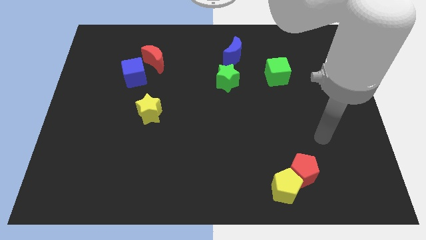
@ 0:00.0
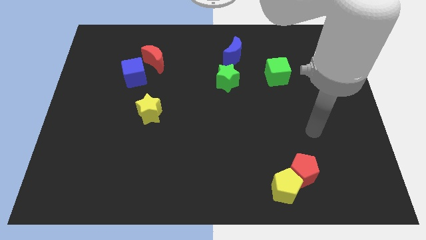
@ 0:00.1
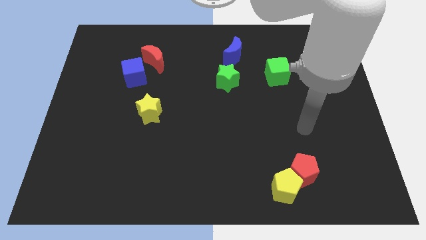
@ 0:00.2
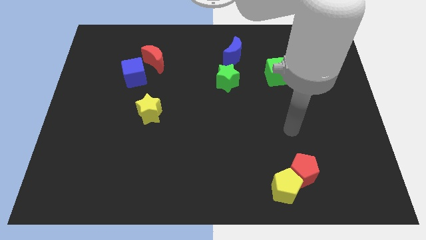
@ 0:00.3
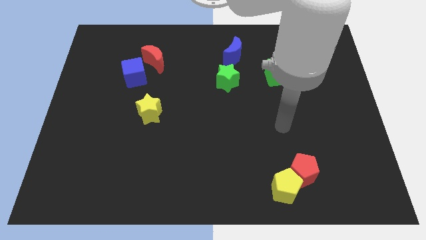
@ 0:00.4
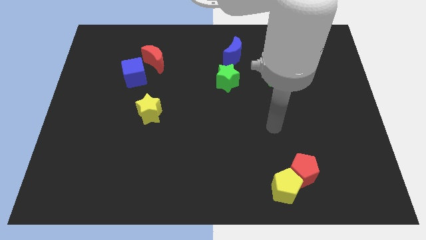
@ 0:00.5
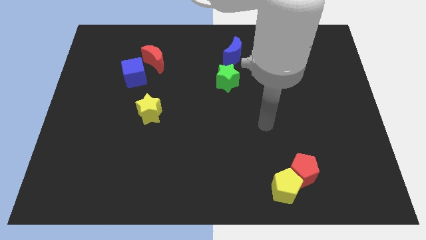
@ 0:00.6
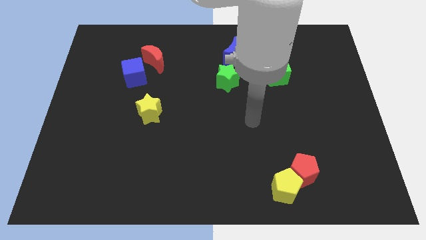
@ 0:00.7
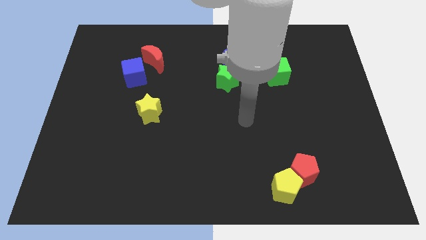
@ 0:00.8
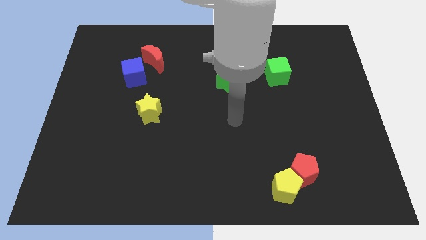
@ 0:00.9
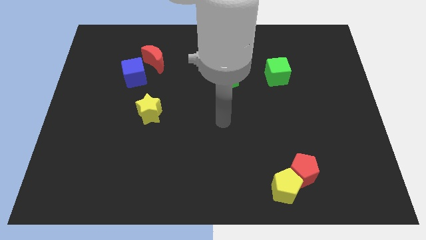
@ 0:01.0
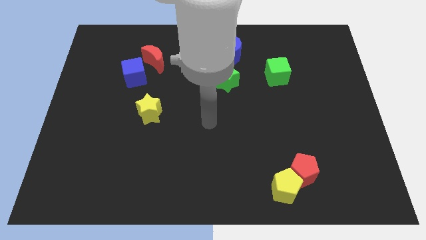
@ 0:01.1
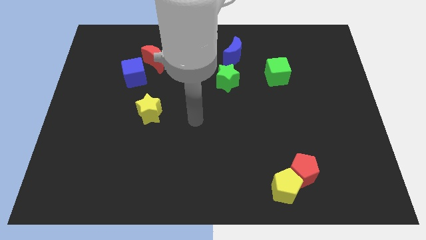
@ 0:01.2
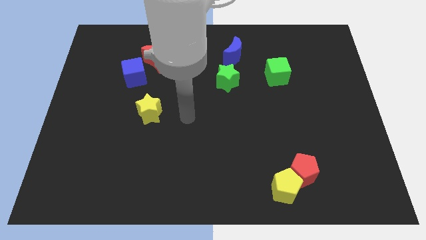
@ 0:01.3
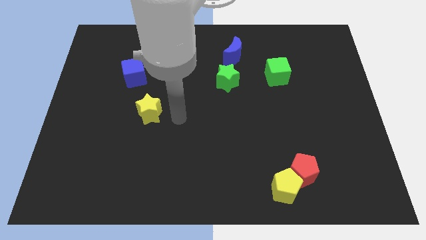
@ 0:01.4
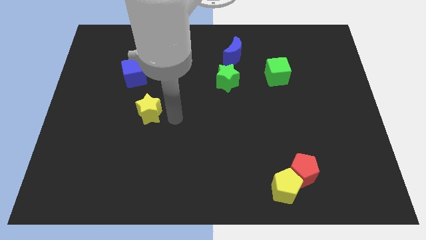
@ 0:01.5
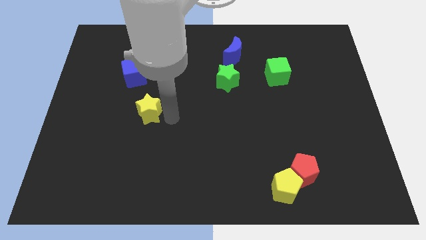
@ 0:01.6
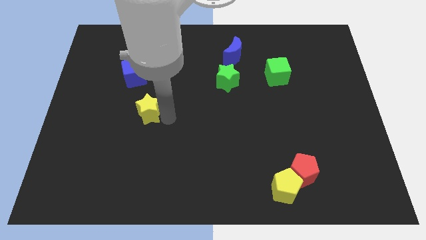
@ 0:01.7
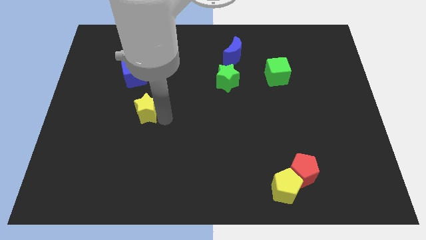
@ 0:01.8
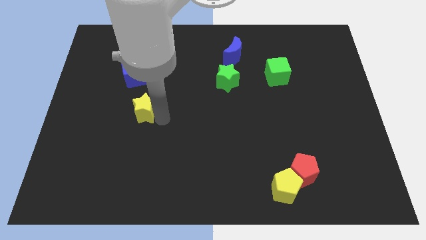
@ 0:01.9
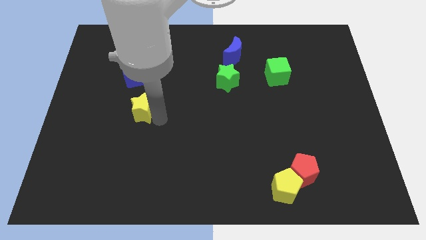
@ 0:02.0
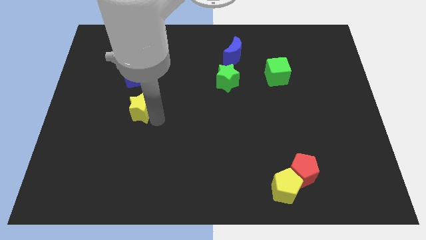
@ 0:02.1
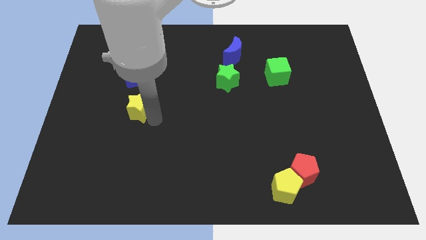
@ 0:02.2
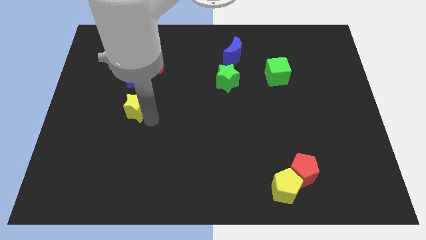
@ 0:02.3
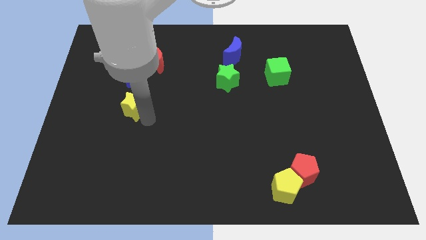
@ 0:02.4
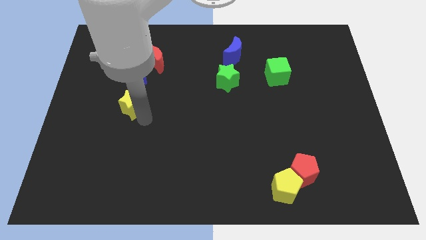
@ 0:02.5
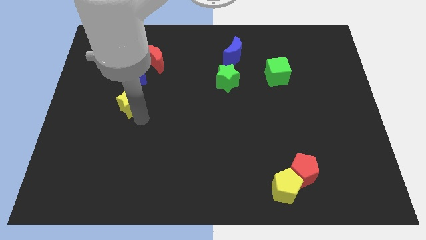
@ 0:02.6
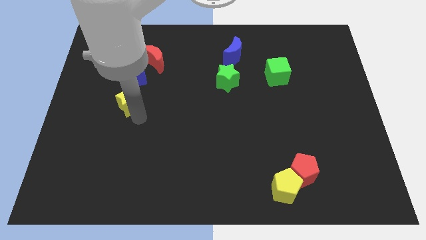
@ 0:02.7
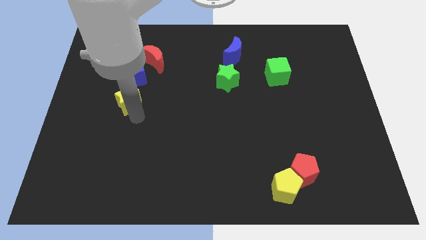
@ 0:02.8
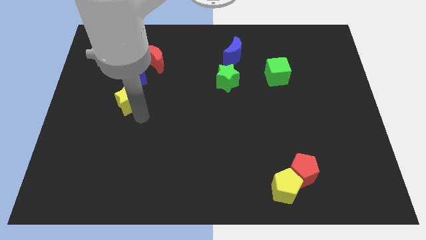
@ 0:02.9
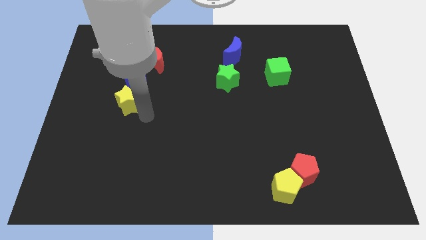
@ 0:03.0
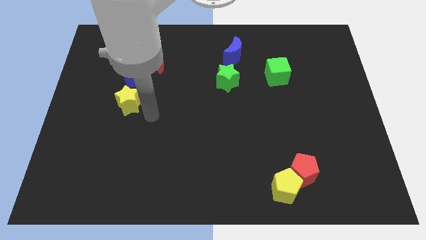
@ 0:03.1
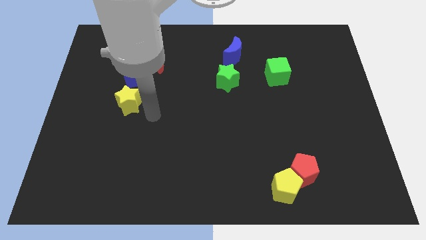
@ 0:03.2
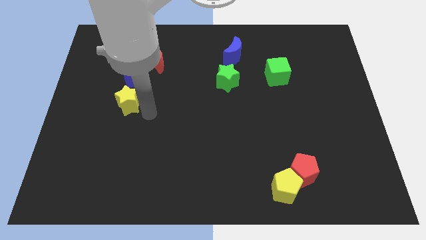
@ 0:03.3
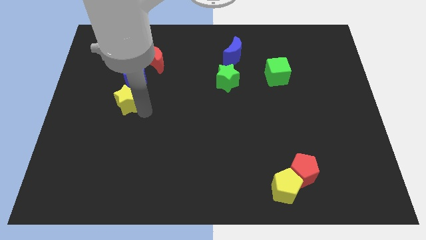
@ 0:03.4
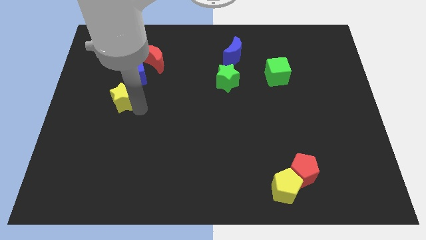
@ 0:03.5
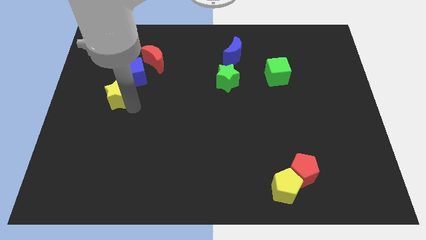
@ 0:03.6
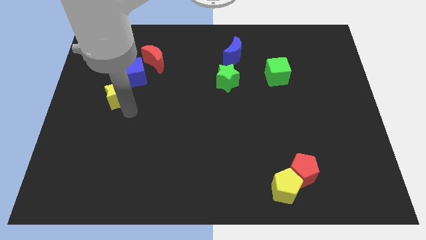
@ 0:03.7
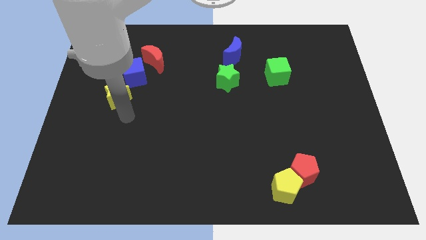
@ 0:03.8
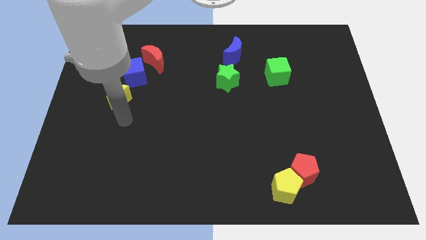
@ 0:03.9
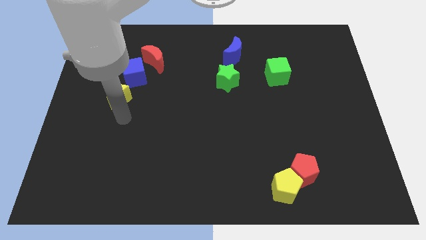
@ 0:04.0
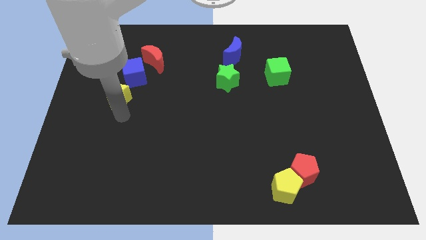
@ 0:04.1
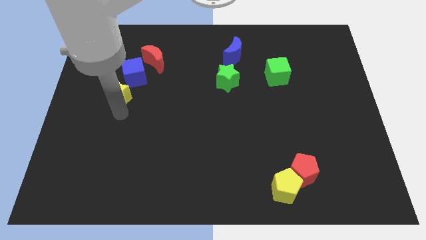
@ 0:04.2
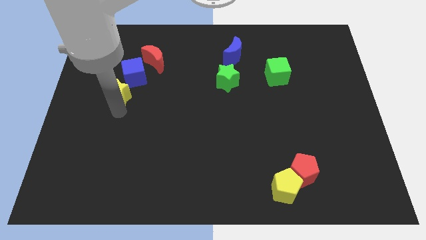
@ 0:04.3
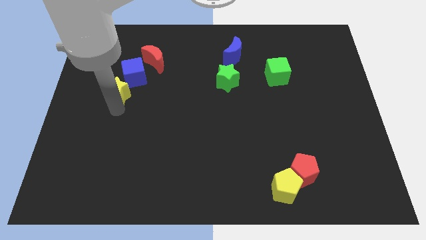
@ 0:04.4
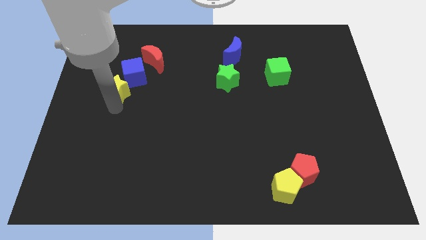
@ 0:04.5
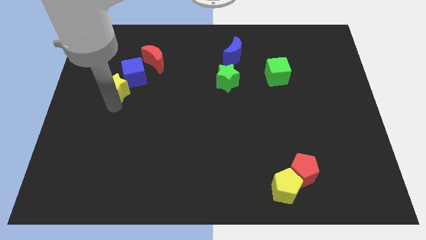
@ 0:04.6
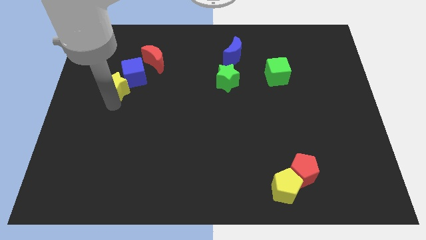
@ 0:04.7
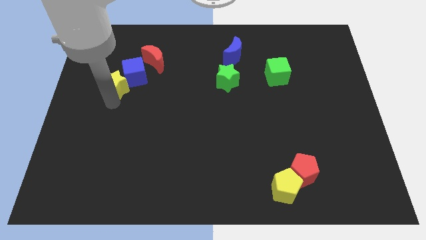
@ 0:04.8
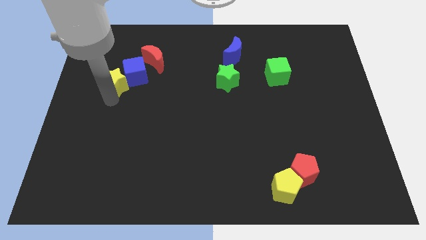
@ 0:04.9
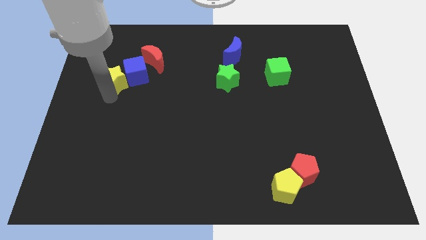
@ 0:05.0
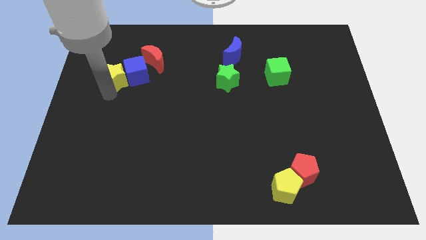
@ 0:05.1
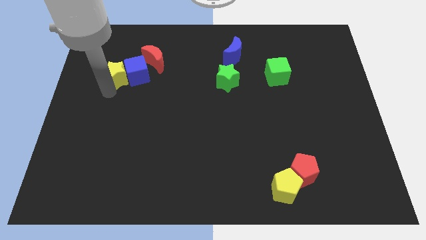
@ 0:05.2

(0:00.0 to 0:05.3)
move the yellow star to the top left side of the blue cube

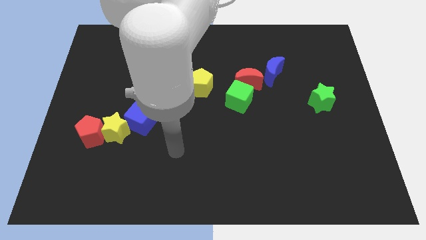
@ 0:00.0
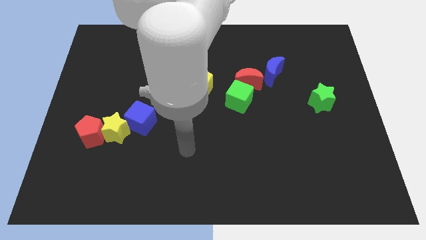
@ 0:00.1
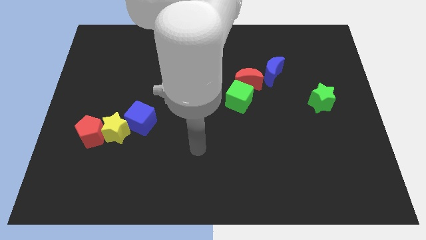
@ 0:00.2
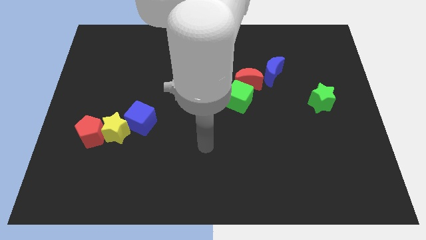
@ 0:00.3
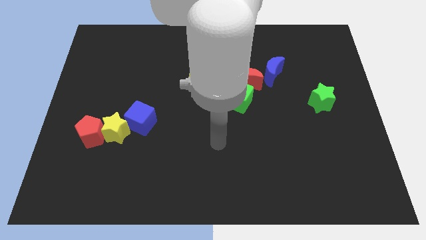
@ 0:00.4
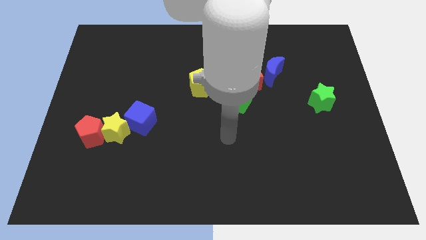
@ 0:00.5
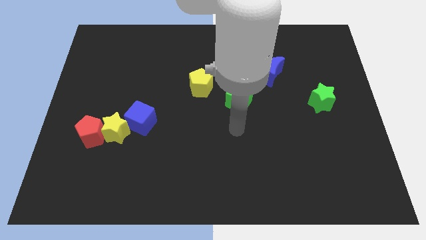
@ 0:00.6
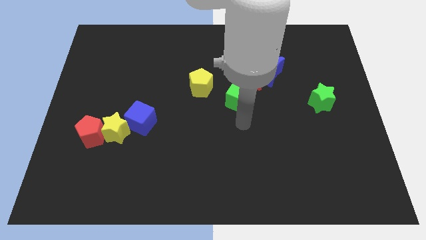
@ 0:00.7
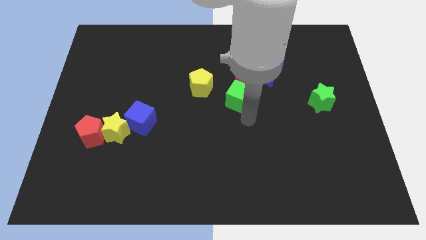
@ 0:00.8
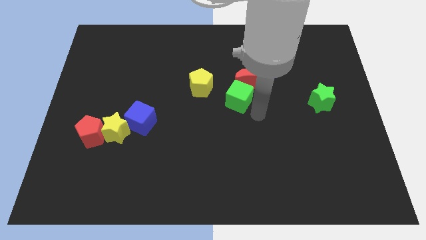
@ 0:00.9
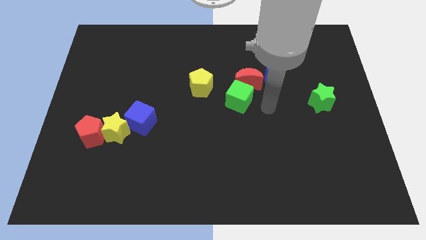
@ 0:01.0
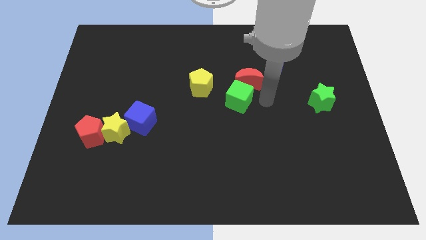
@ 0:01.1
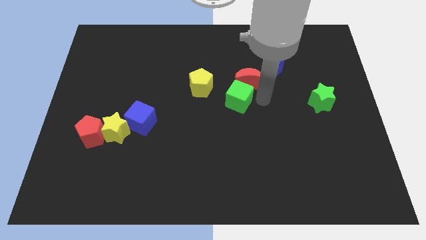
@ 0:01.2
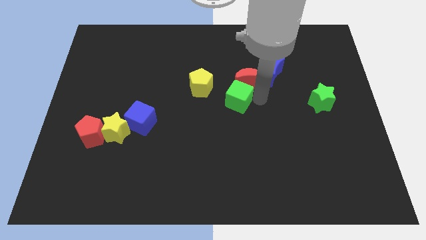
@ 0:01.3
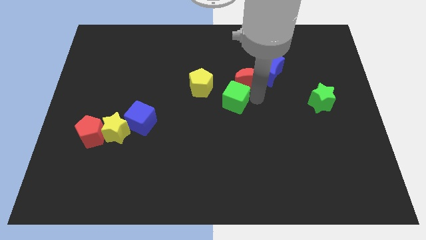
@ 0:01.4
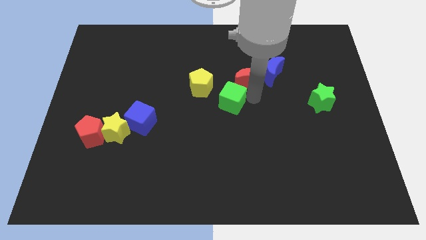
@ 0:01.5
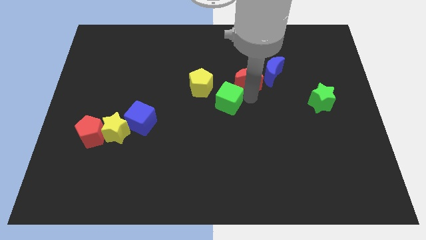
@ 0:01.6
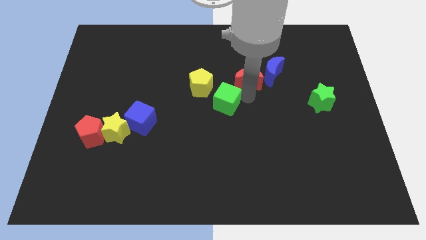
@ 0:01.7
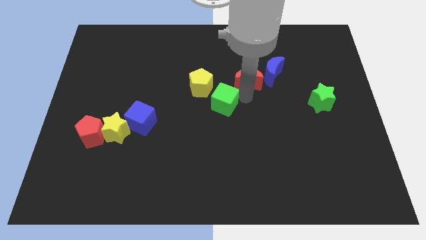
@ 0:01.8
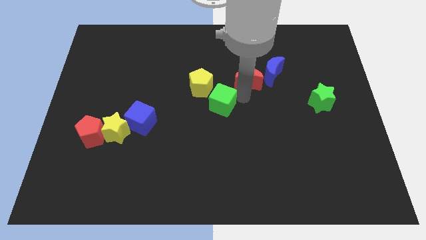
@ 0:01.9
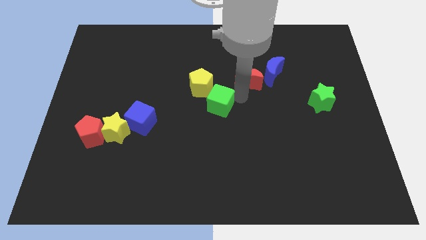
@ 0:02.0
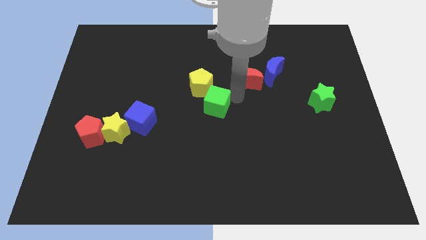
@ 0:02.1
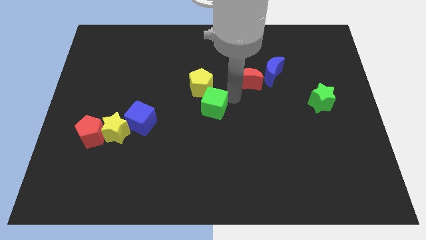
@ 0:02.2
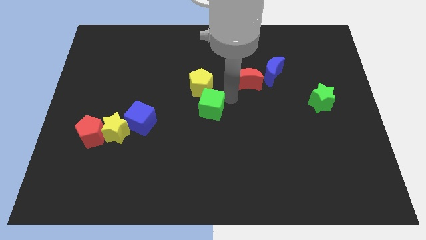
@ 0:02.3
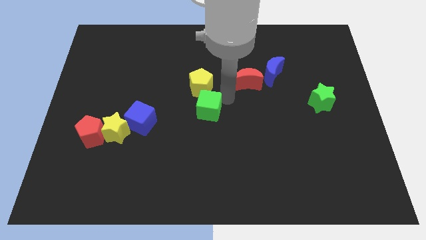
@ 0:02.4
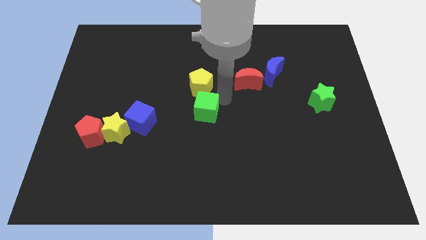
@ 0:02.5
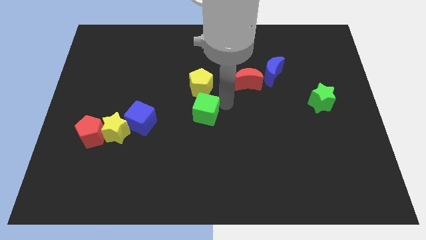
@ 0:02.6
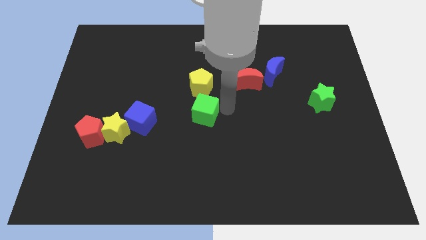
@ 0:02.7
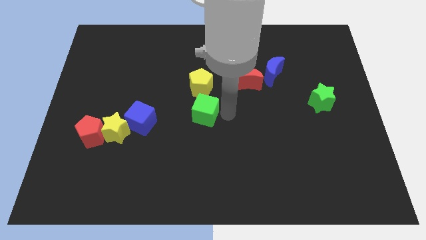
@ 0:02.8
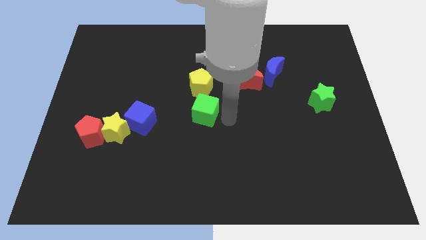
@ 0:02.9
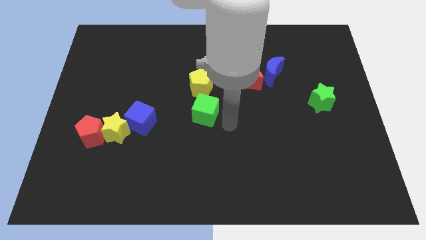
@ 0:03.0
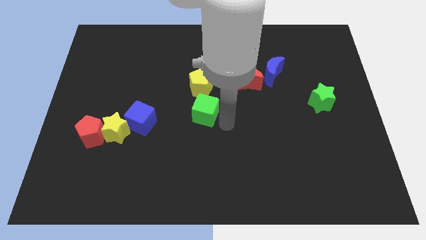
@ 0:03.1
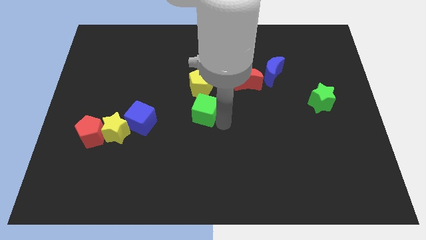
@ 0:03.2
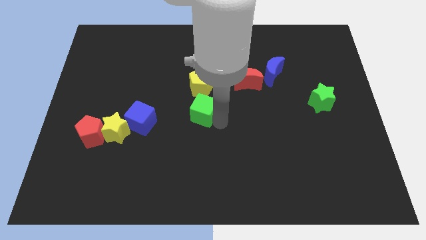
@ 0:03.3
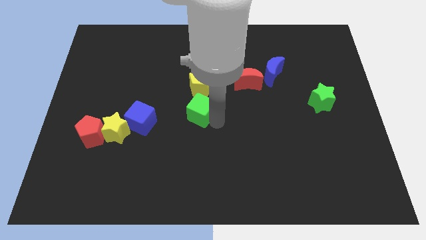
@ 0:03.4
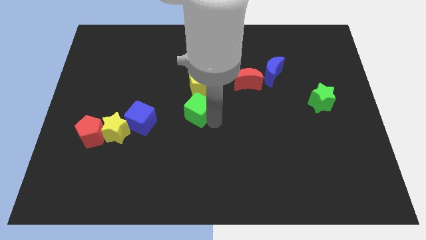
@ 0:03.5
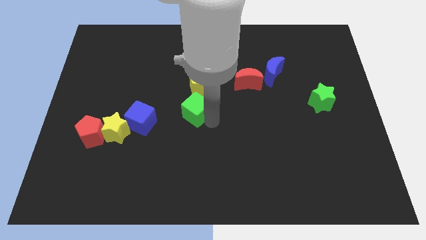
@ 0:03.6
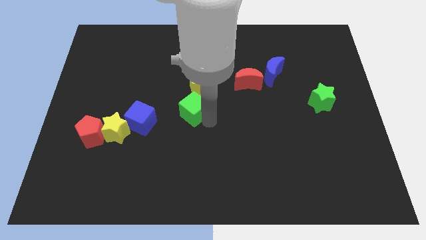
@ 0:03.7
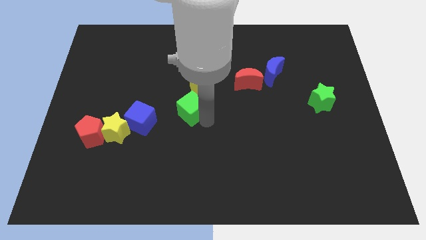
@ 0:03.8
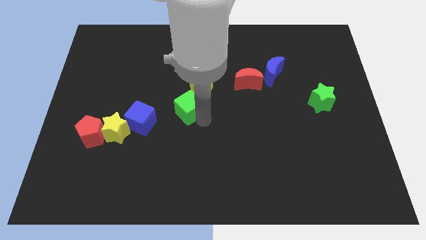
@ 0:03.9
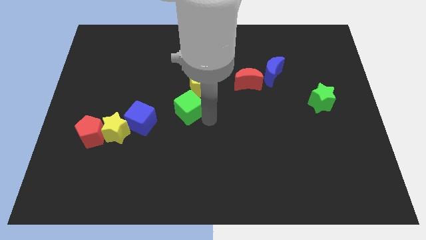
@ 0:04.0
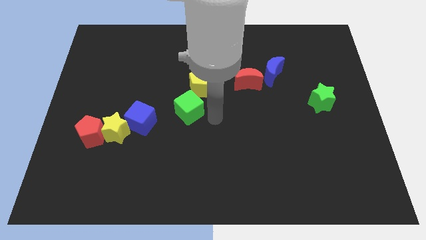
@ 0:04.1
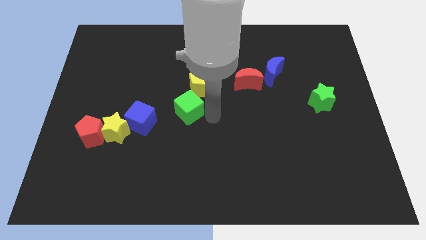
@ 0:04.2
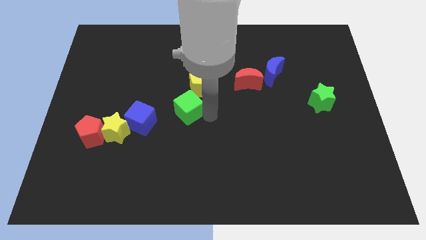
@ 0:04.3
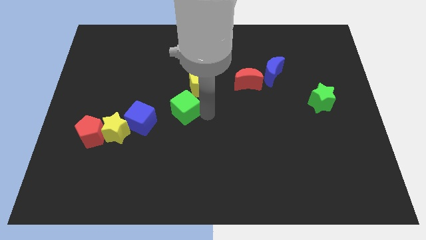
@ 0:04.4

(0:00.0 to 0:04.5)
put the green cube to the top right side of the blue cube
